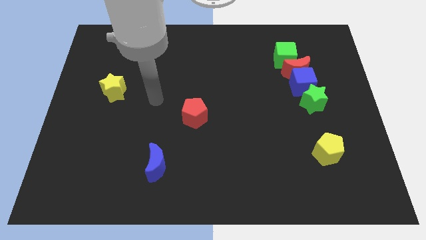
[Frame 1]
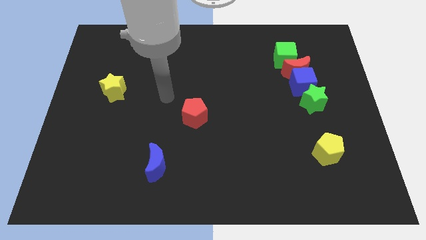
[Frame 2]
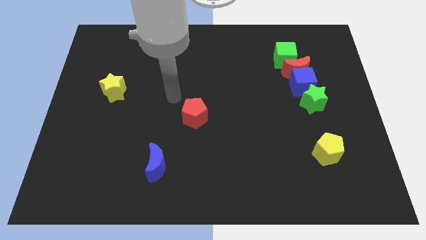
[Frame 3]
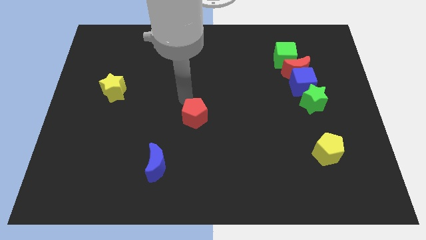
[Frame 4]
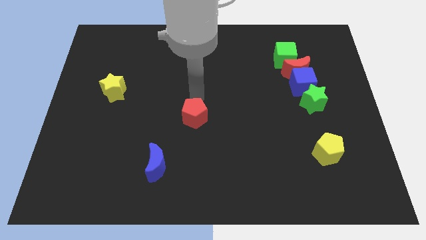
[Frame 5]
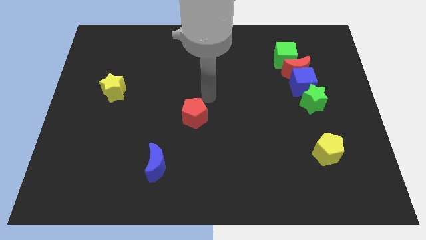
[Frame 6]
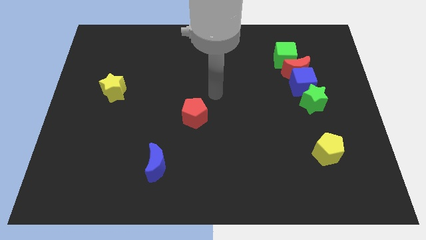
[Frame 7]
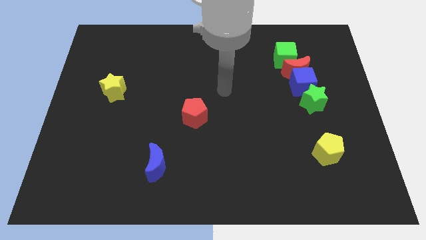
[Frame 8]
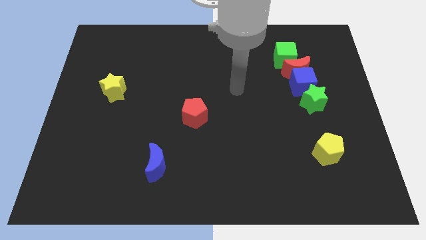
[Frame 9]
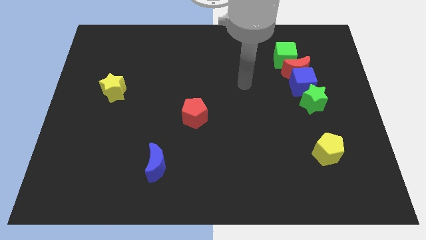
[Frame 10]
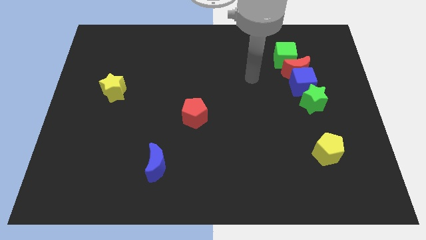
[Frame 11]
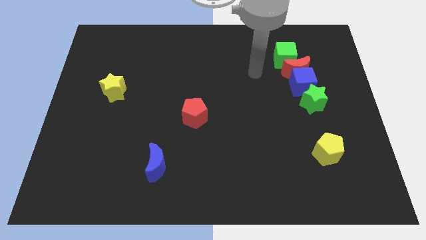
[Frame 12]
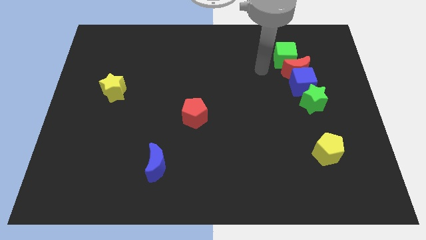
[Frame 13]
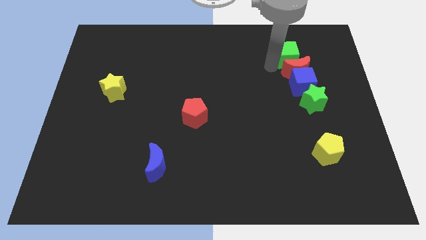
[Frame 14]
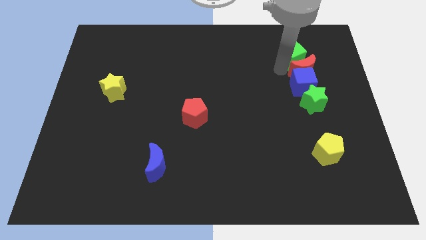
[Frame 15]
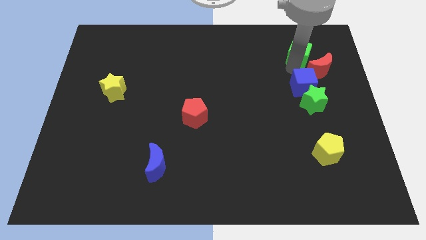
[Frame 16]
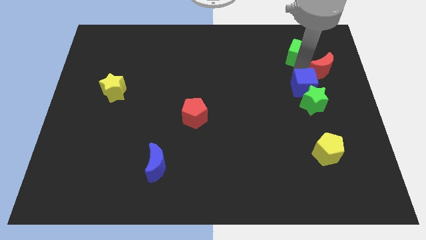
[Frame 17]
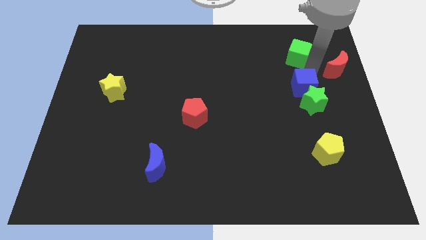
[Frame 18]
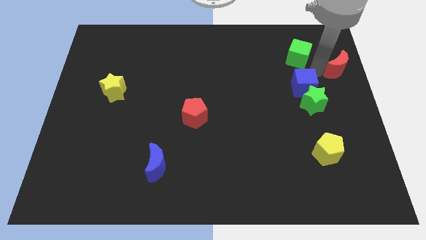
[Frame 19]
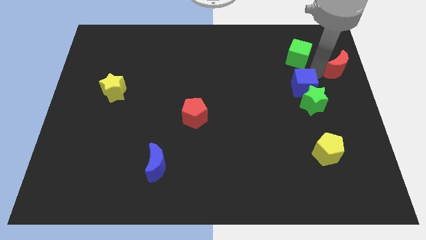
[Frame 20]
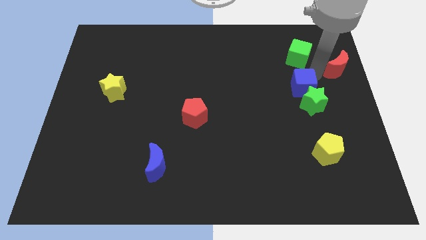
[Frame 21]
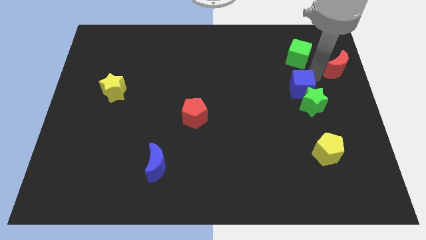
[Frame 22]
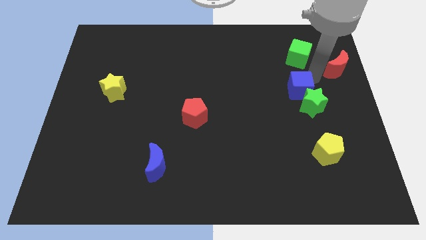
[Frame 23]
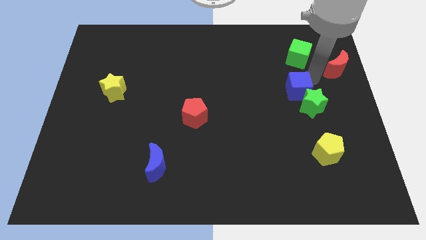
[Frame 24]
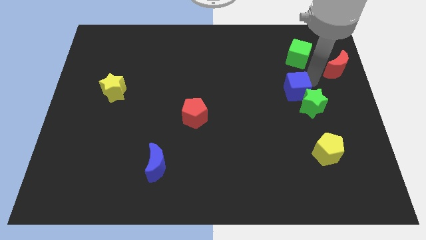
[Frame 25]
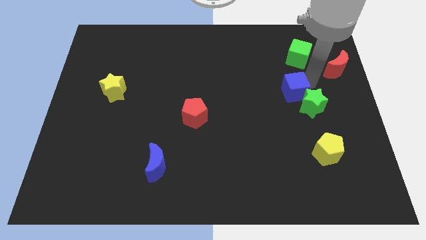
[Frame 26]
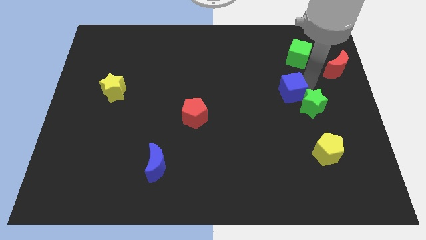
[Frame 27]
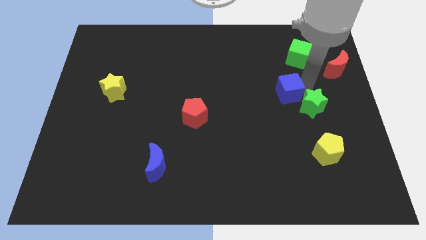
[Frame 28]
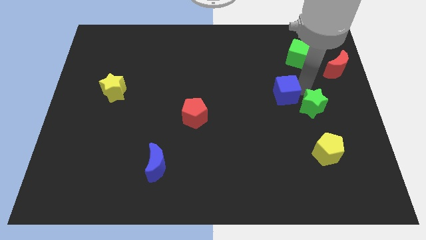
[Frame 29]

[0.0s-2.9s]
pull the blue cube apart from the red moon, green star, and green cube

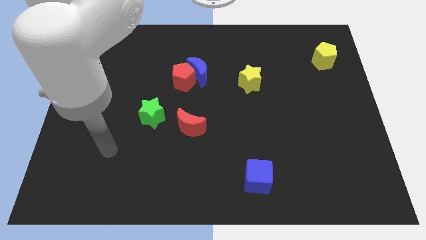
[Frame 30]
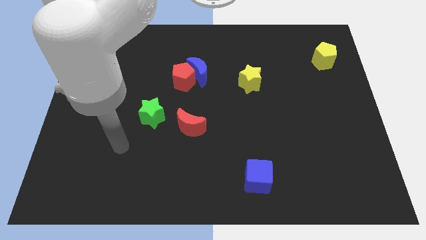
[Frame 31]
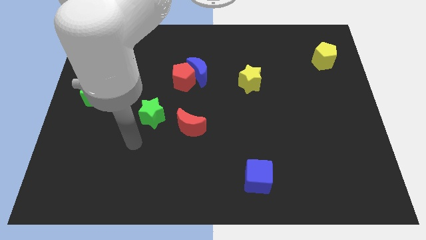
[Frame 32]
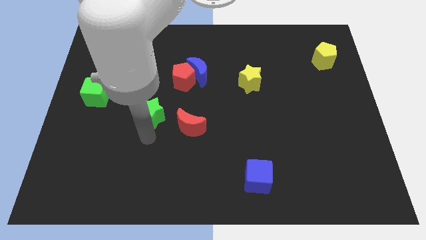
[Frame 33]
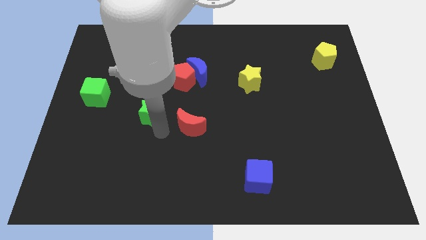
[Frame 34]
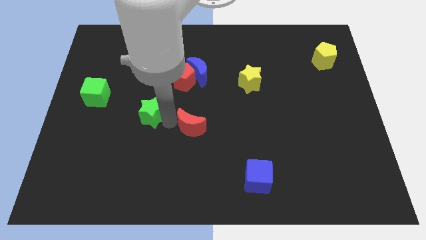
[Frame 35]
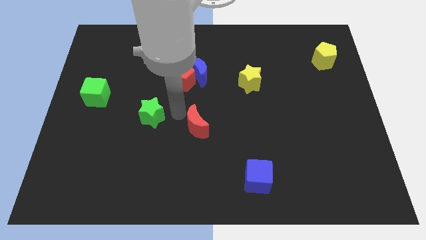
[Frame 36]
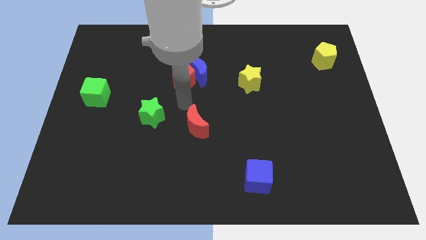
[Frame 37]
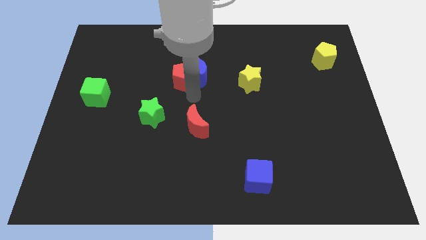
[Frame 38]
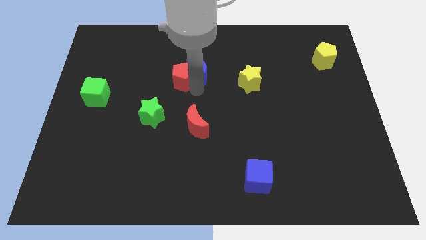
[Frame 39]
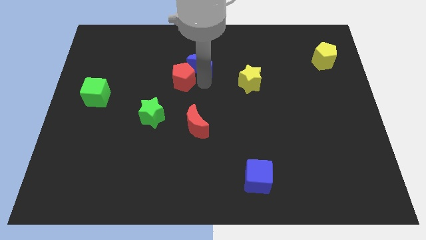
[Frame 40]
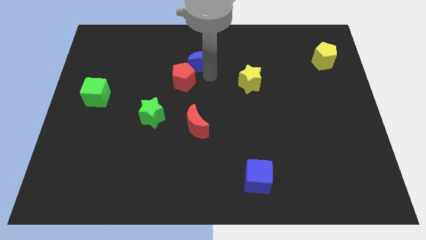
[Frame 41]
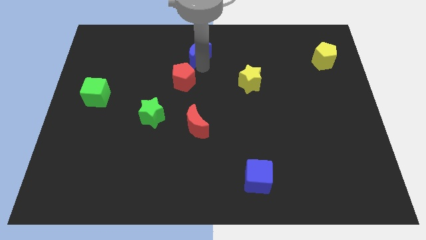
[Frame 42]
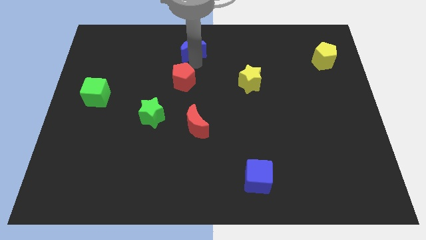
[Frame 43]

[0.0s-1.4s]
pull the red pentagon apart from the blue moon

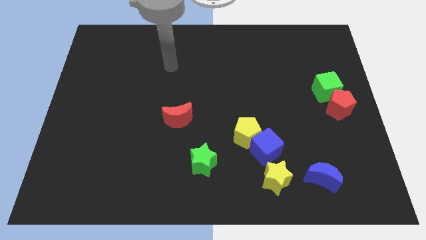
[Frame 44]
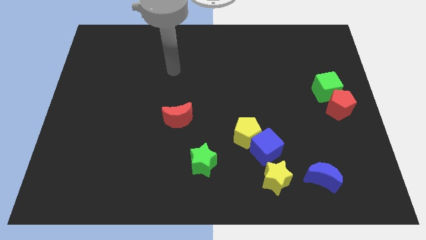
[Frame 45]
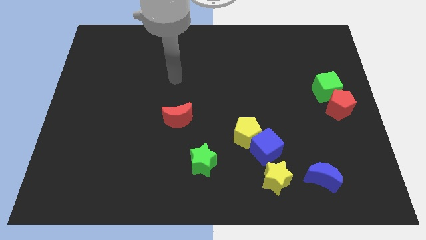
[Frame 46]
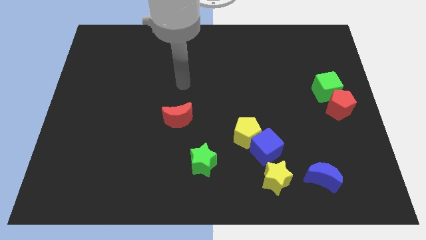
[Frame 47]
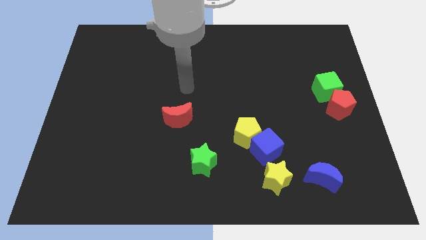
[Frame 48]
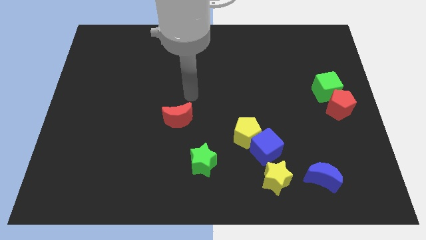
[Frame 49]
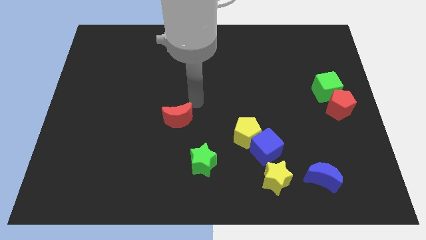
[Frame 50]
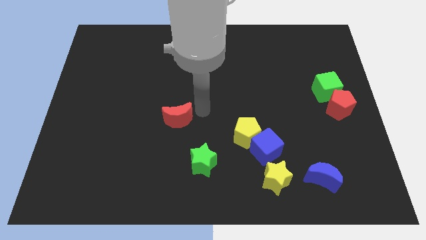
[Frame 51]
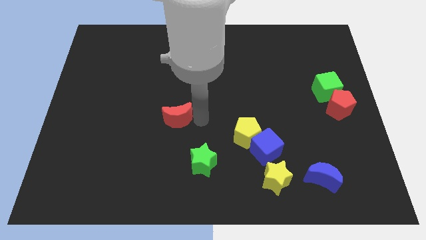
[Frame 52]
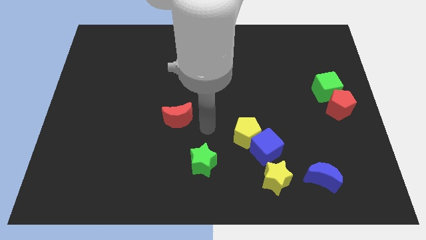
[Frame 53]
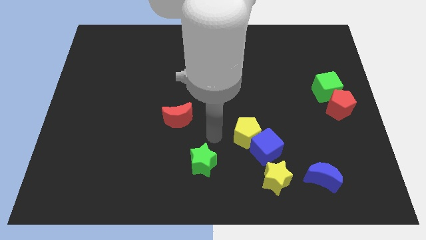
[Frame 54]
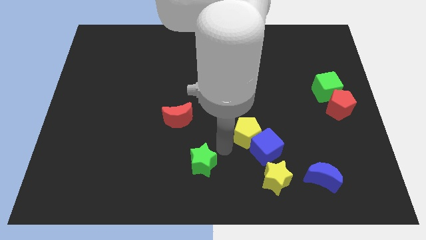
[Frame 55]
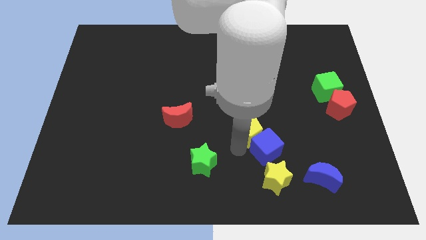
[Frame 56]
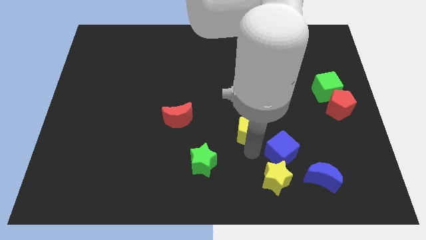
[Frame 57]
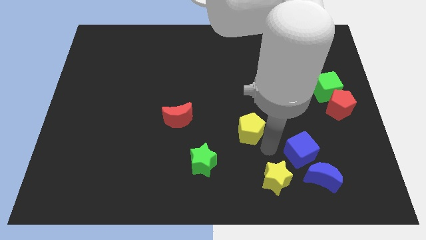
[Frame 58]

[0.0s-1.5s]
separate the yellow pentagon from the blue cube

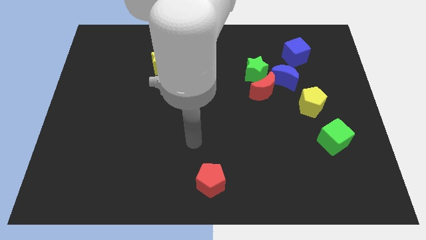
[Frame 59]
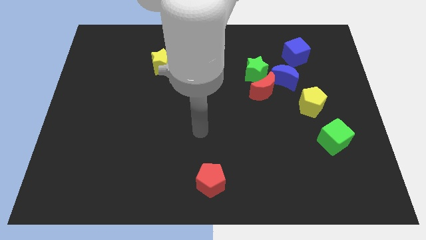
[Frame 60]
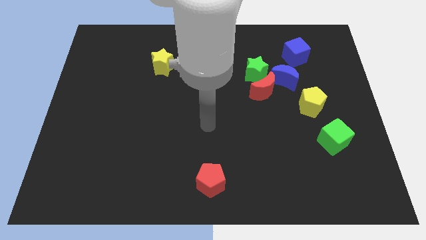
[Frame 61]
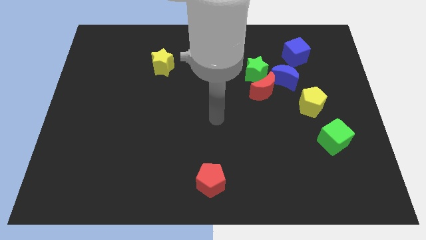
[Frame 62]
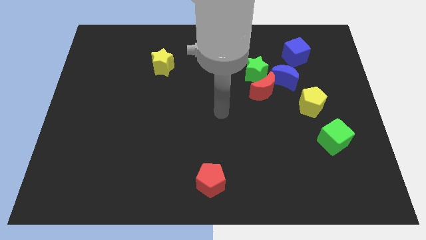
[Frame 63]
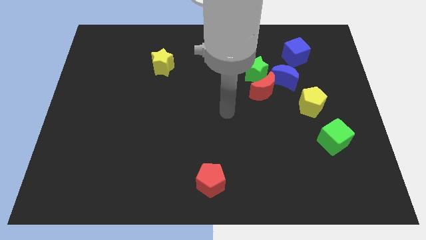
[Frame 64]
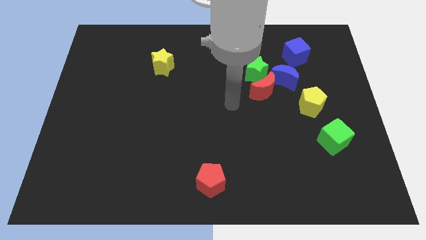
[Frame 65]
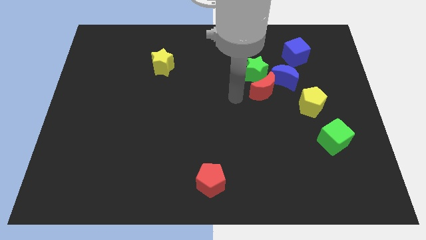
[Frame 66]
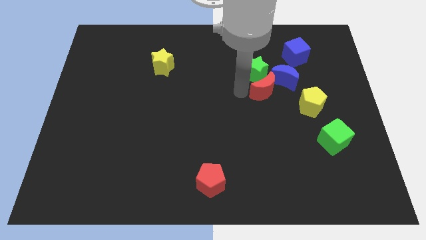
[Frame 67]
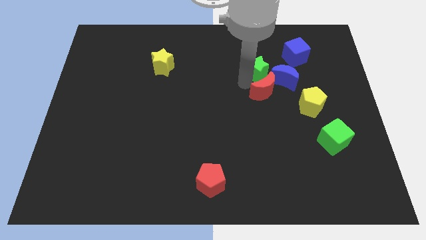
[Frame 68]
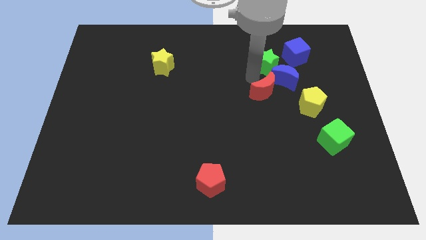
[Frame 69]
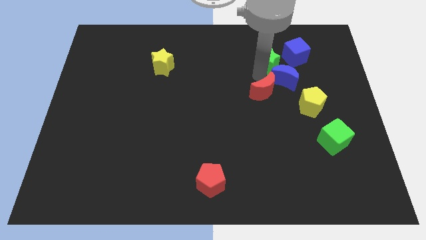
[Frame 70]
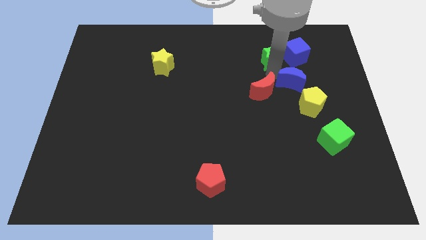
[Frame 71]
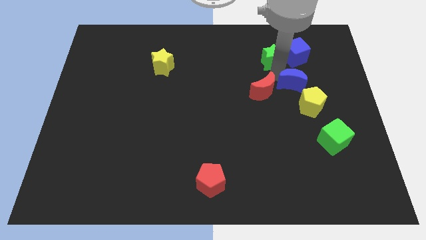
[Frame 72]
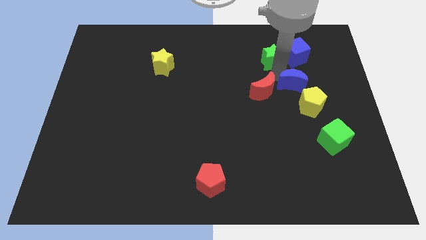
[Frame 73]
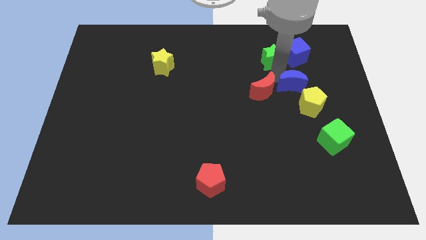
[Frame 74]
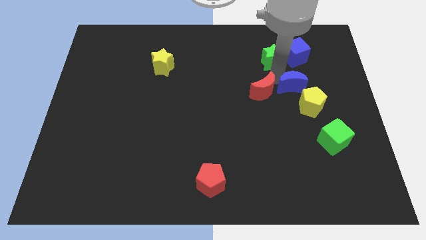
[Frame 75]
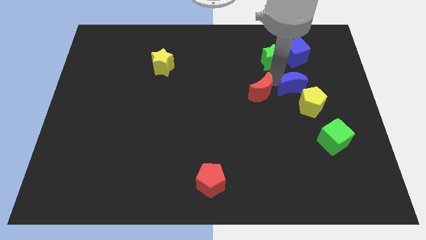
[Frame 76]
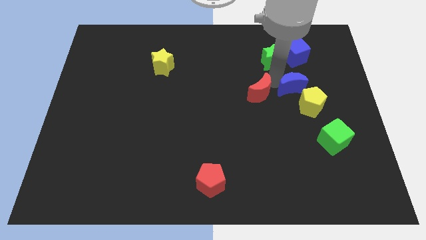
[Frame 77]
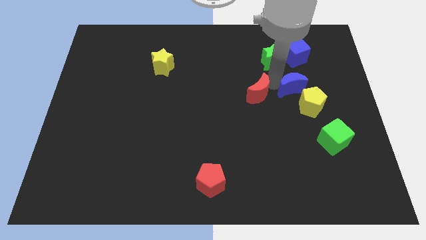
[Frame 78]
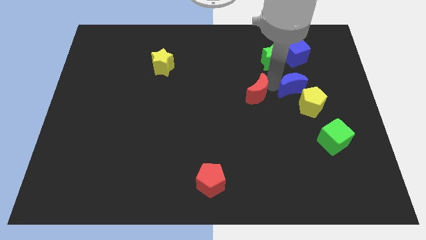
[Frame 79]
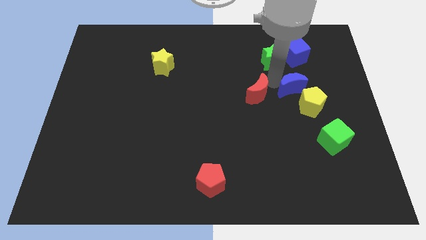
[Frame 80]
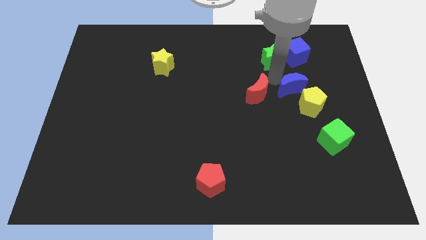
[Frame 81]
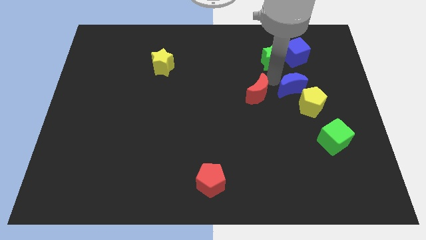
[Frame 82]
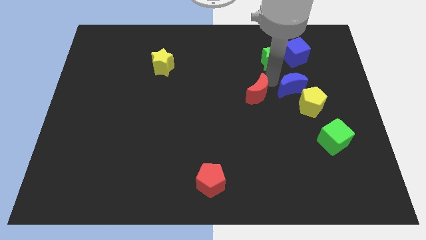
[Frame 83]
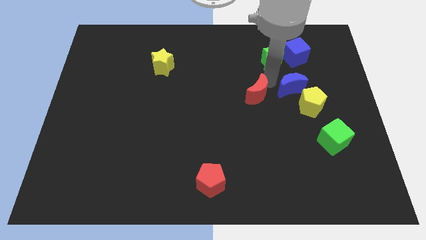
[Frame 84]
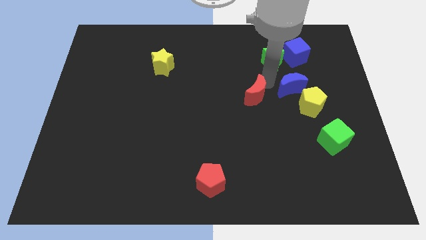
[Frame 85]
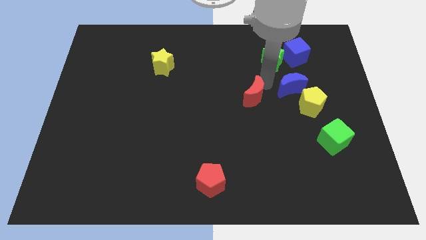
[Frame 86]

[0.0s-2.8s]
move the red moon away from the green star and blue moon

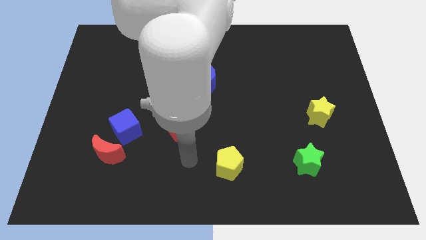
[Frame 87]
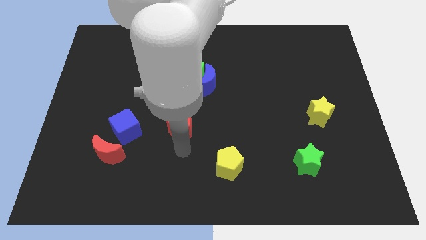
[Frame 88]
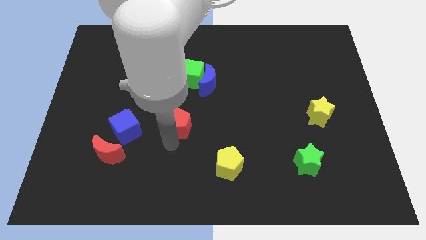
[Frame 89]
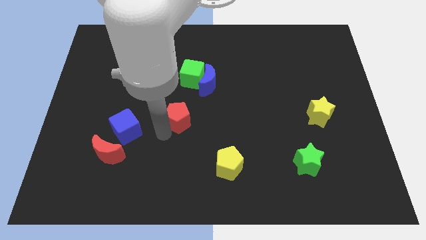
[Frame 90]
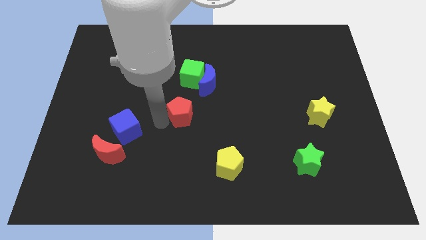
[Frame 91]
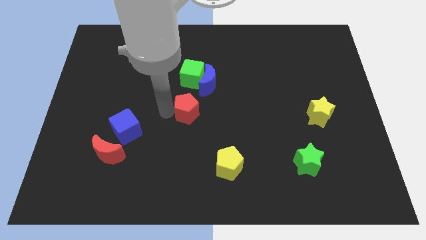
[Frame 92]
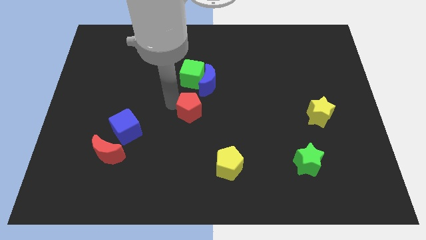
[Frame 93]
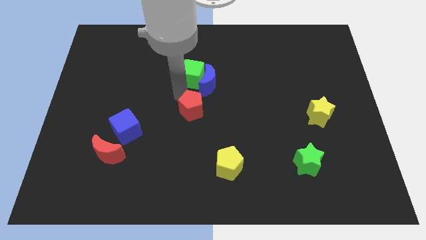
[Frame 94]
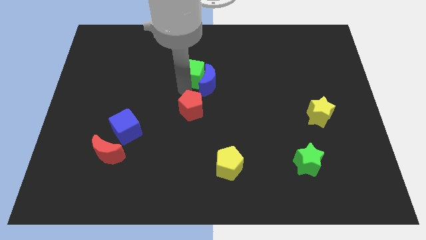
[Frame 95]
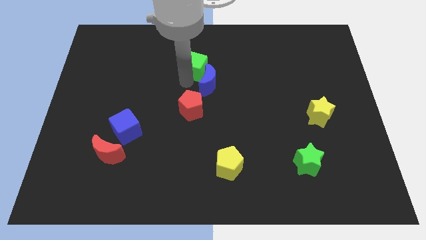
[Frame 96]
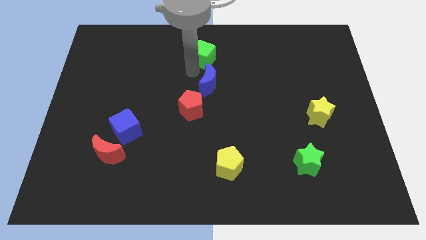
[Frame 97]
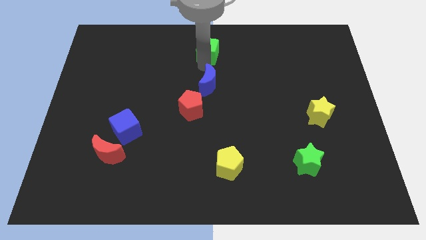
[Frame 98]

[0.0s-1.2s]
move the blue moon away from the green cube
